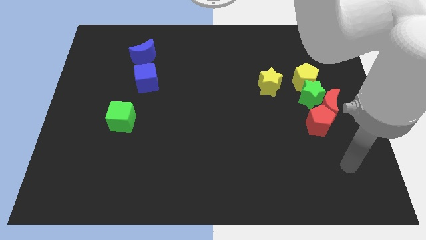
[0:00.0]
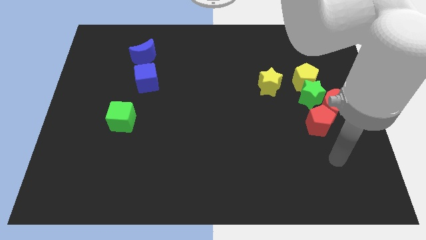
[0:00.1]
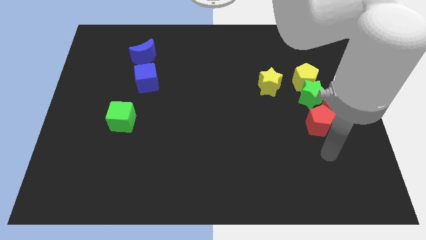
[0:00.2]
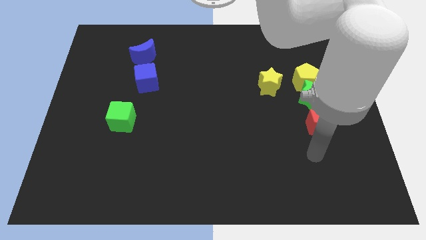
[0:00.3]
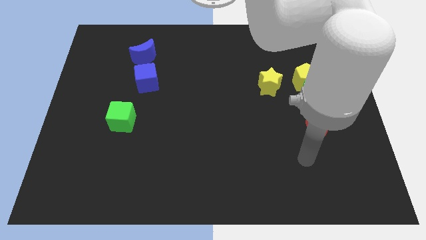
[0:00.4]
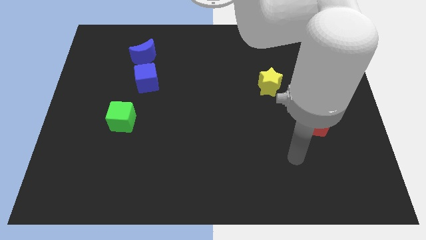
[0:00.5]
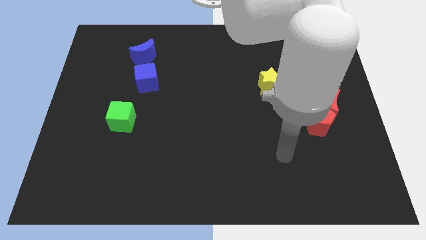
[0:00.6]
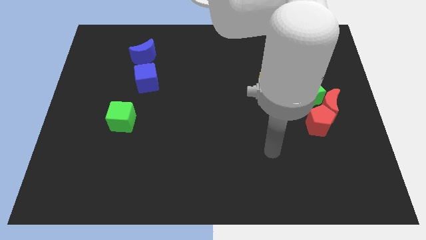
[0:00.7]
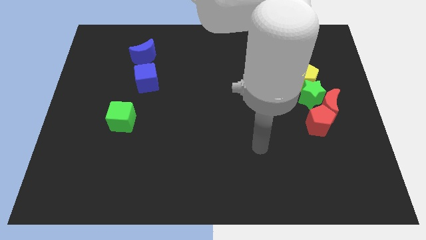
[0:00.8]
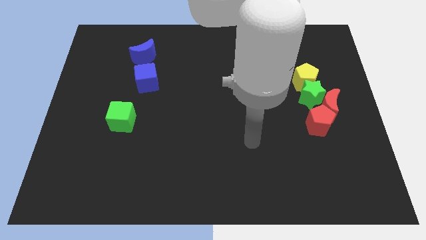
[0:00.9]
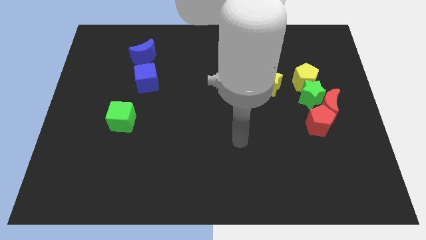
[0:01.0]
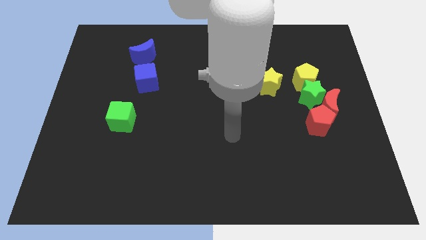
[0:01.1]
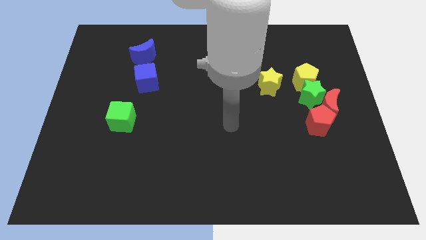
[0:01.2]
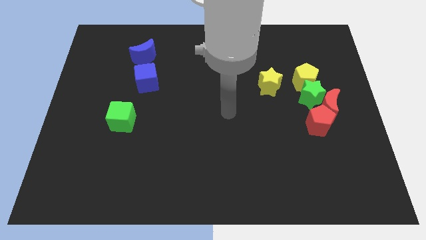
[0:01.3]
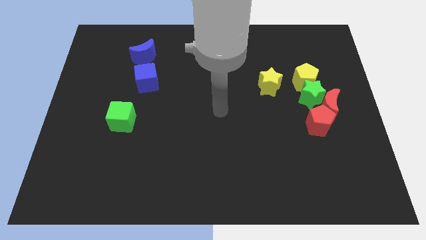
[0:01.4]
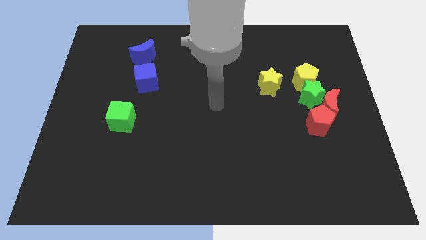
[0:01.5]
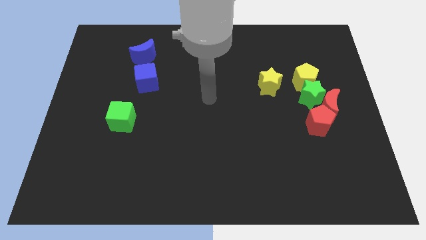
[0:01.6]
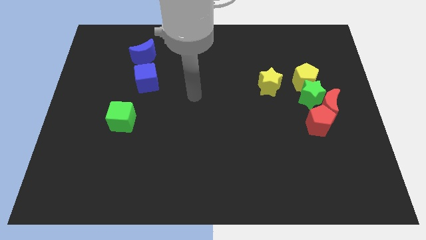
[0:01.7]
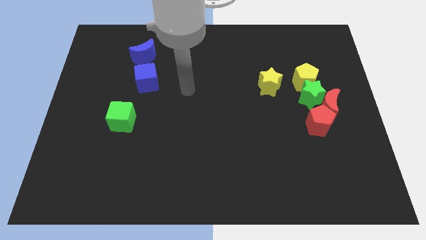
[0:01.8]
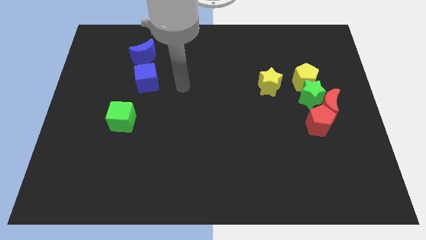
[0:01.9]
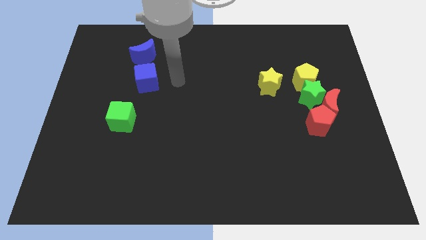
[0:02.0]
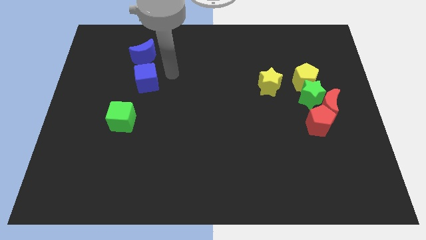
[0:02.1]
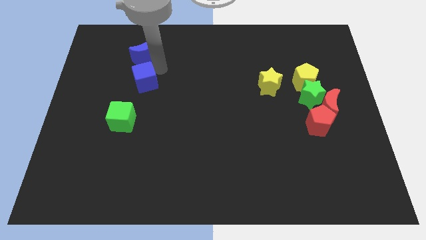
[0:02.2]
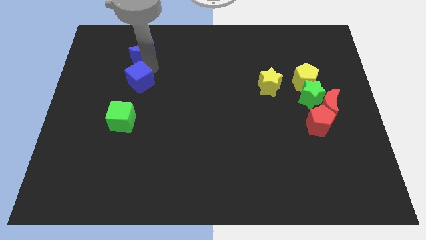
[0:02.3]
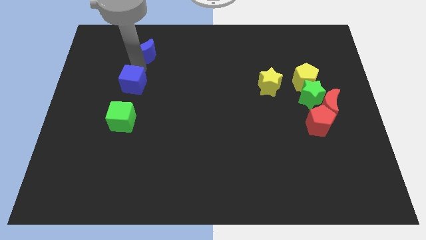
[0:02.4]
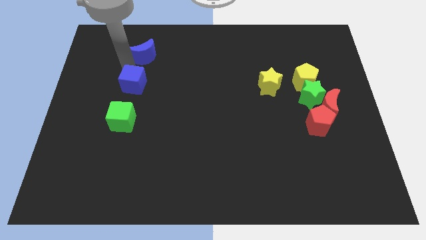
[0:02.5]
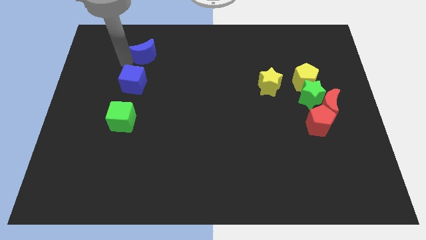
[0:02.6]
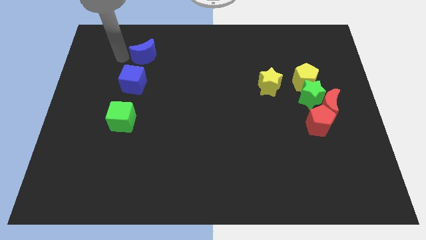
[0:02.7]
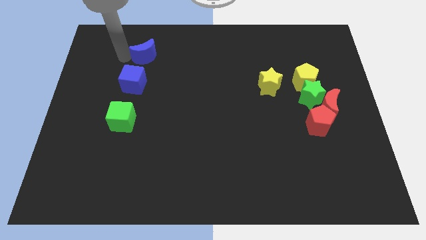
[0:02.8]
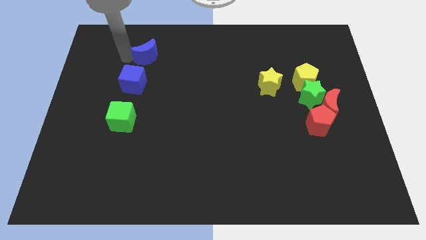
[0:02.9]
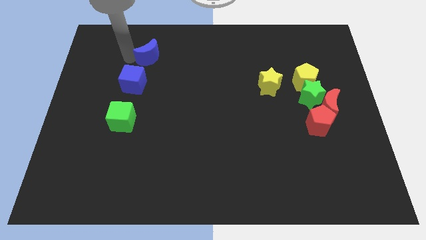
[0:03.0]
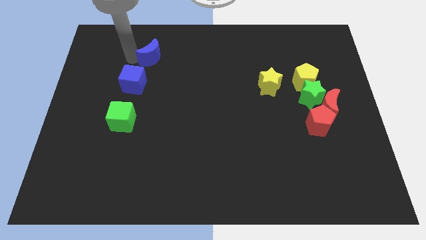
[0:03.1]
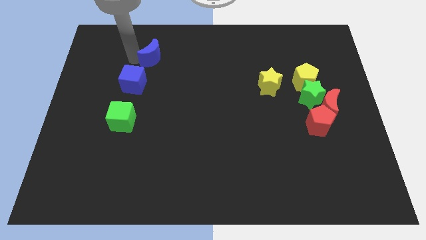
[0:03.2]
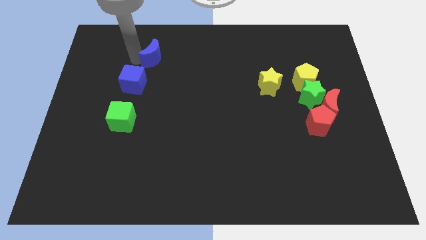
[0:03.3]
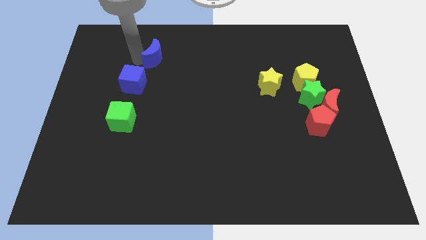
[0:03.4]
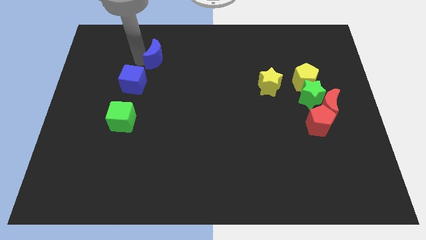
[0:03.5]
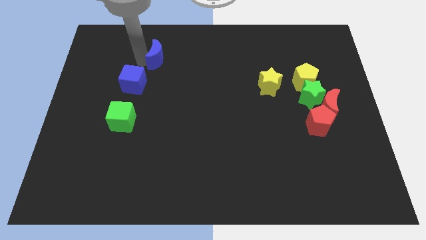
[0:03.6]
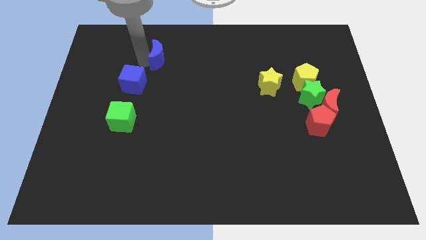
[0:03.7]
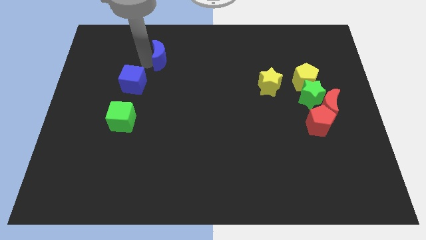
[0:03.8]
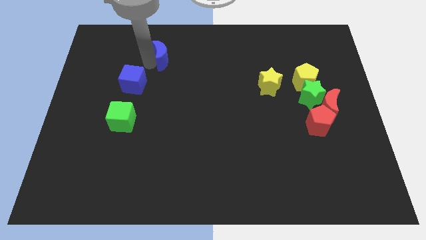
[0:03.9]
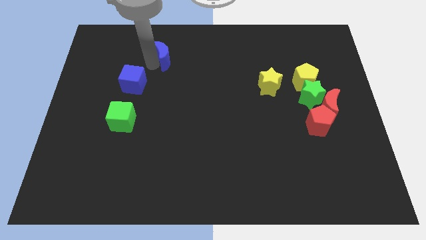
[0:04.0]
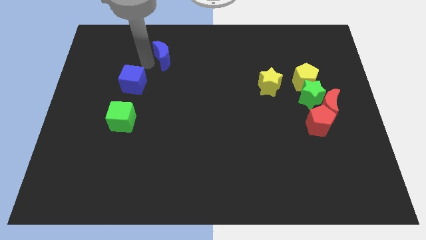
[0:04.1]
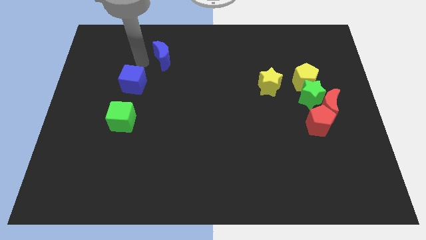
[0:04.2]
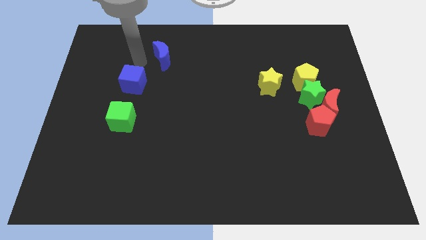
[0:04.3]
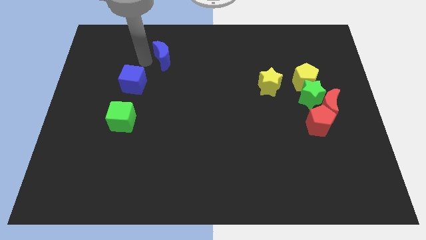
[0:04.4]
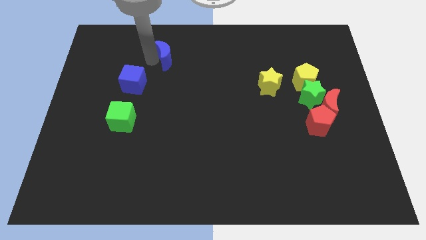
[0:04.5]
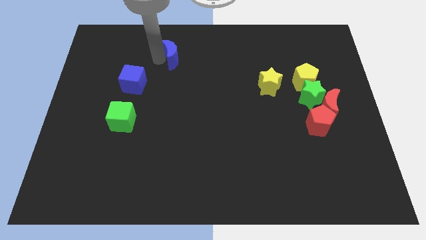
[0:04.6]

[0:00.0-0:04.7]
push the blue moon right somewhat

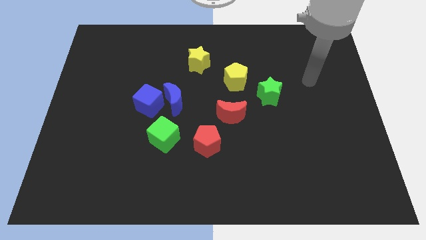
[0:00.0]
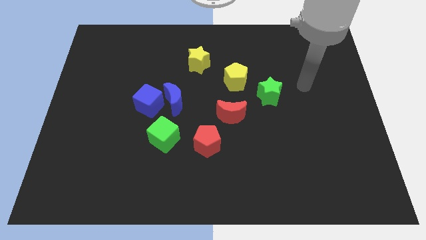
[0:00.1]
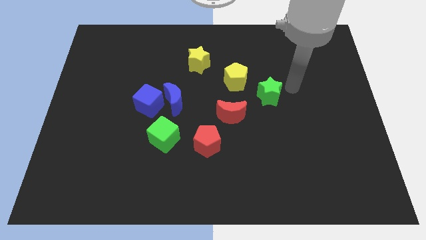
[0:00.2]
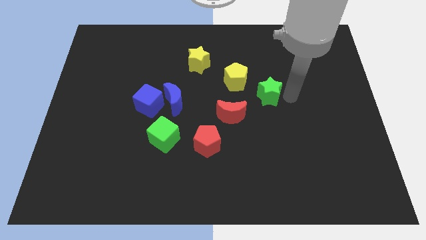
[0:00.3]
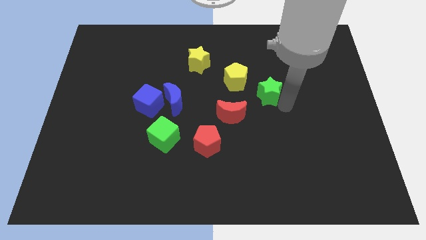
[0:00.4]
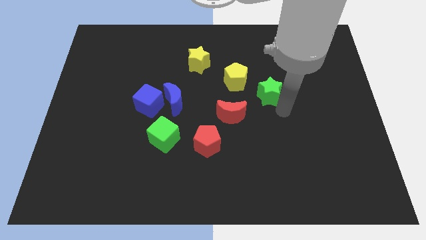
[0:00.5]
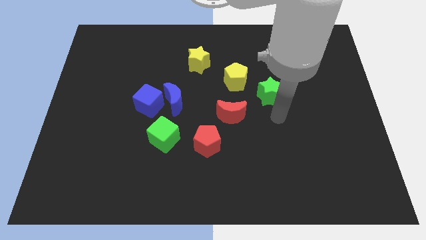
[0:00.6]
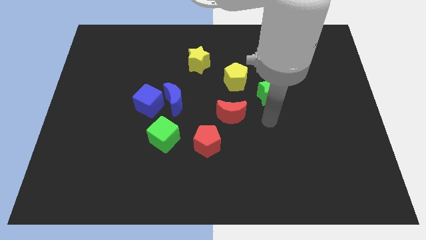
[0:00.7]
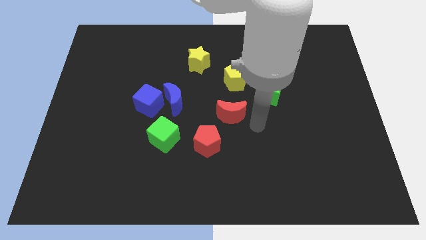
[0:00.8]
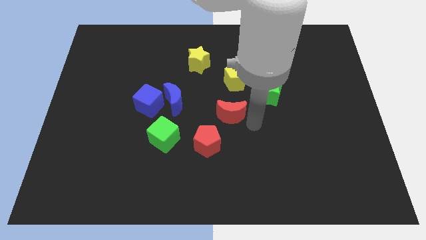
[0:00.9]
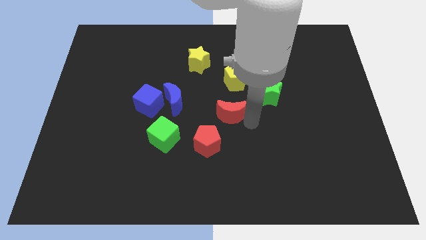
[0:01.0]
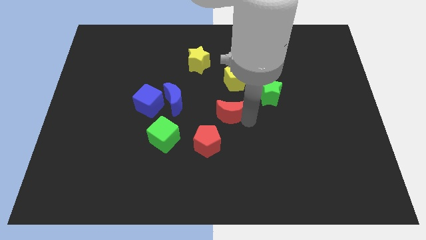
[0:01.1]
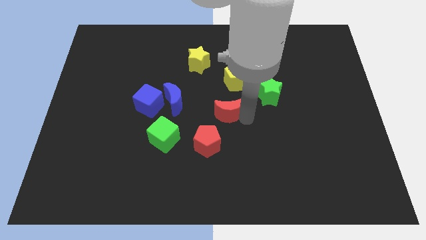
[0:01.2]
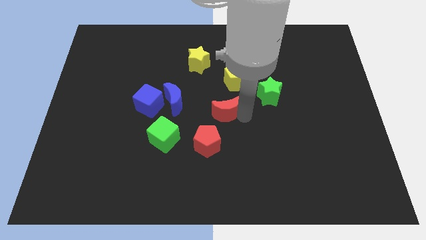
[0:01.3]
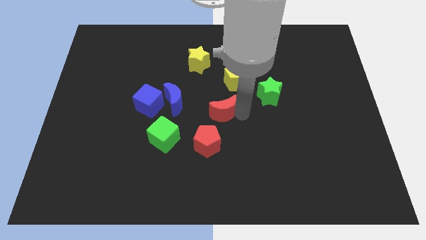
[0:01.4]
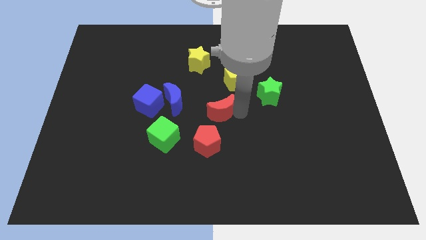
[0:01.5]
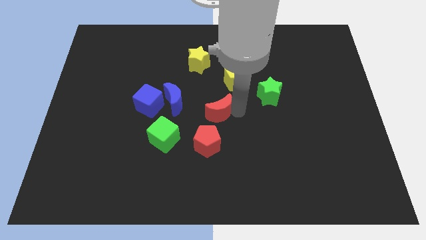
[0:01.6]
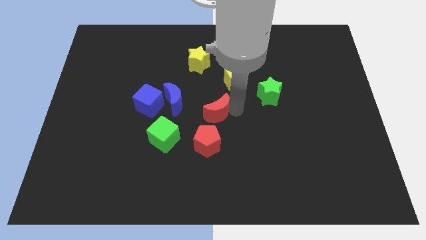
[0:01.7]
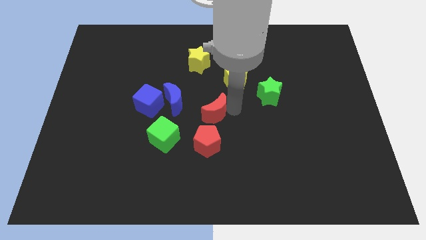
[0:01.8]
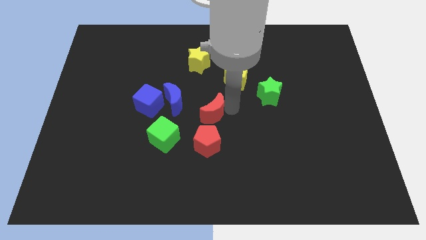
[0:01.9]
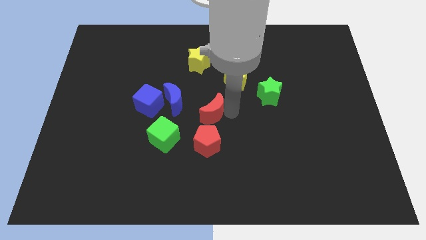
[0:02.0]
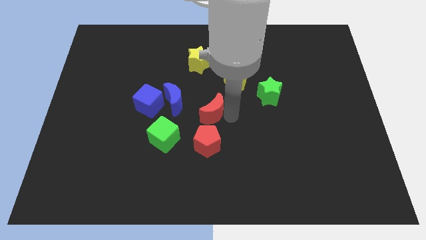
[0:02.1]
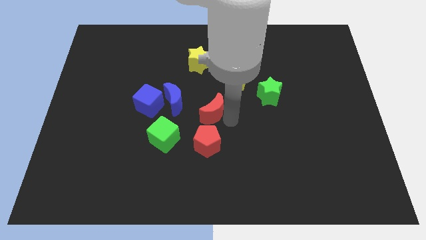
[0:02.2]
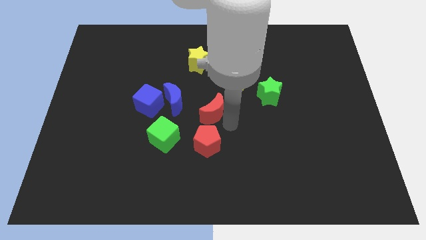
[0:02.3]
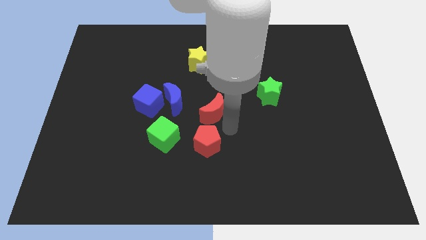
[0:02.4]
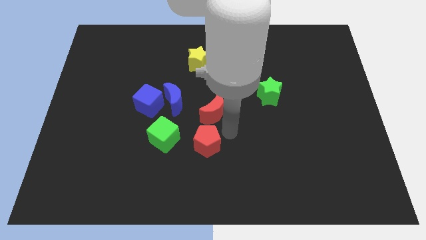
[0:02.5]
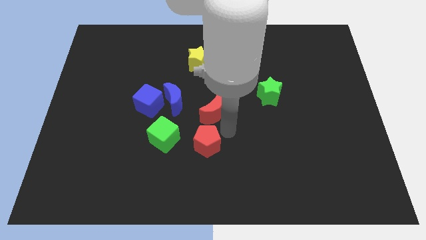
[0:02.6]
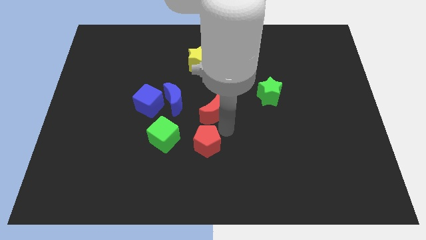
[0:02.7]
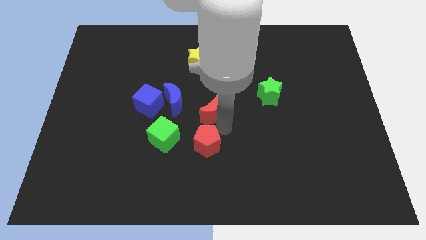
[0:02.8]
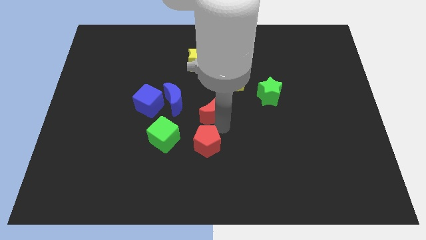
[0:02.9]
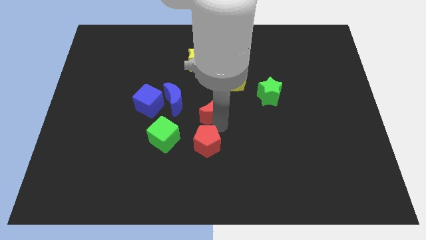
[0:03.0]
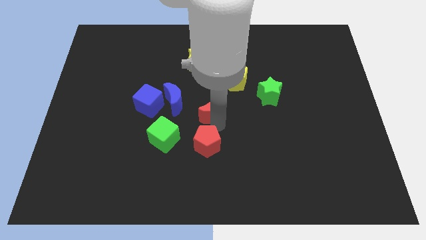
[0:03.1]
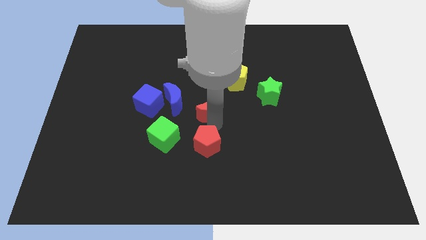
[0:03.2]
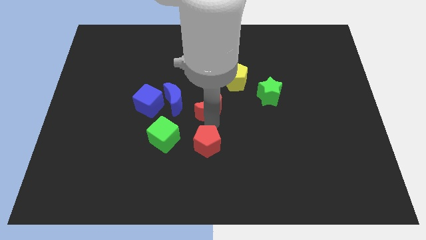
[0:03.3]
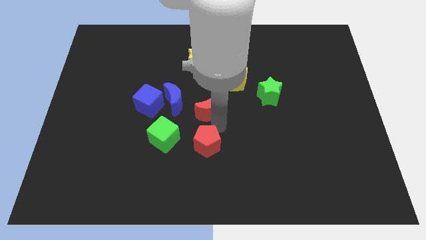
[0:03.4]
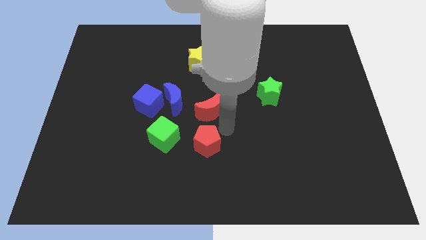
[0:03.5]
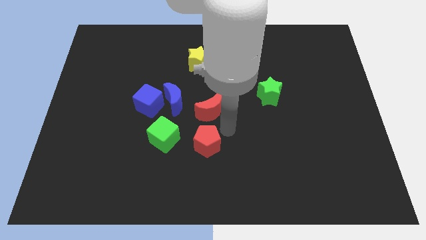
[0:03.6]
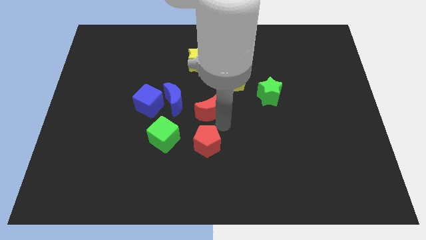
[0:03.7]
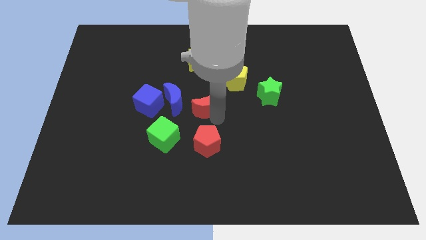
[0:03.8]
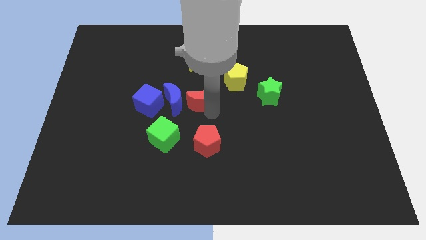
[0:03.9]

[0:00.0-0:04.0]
slightly move the red moon upwards and to the left
